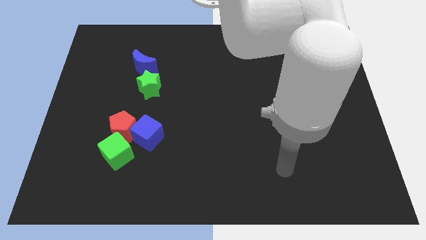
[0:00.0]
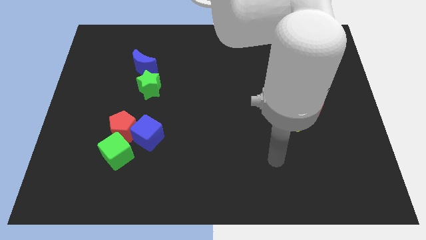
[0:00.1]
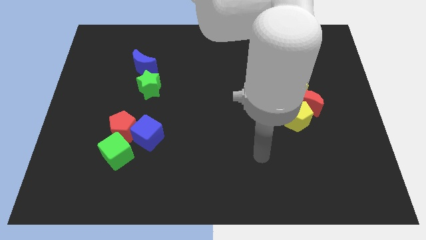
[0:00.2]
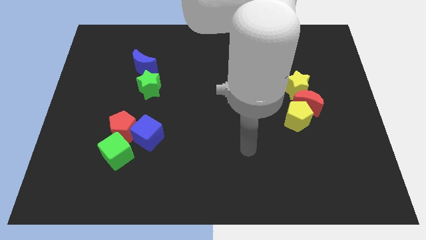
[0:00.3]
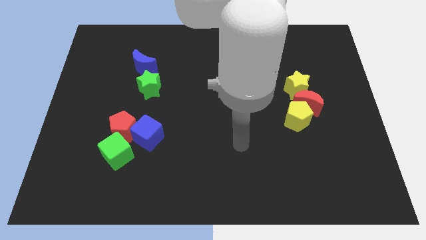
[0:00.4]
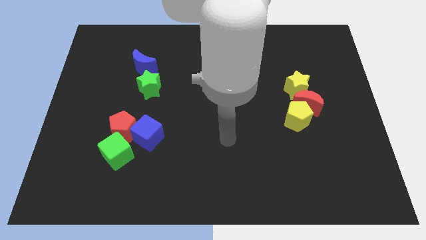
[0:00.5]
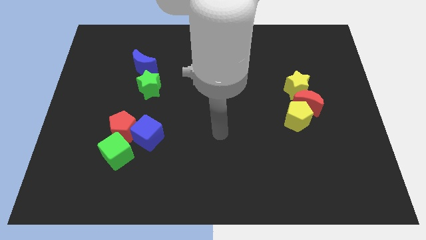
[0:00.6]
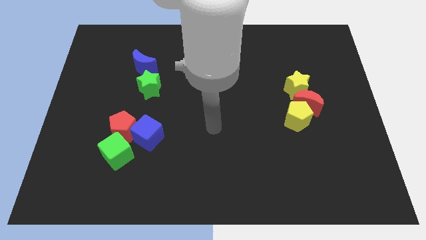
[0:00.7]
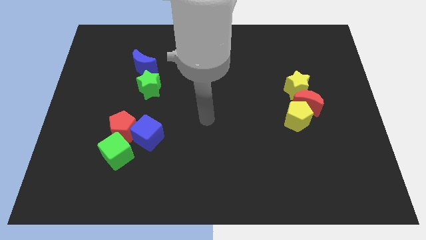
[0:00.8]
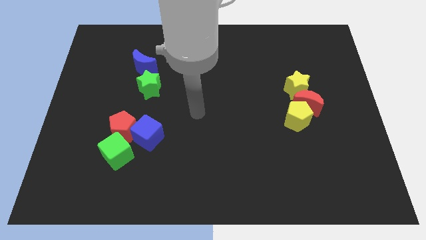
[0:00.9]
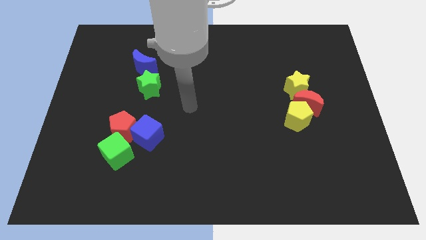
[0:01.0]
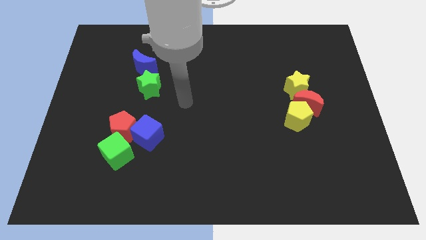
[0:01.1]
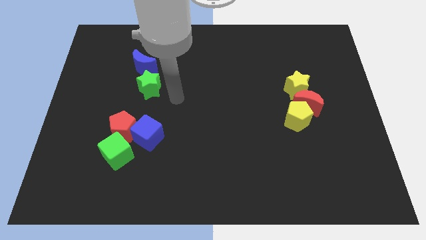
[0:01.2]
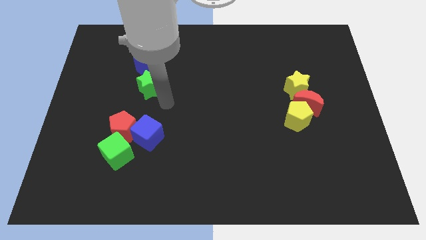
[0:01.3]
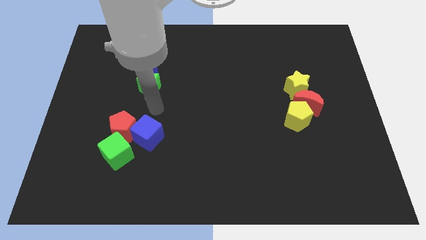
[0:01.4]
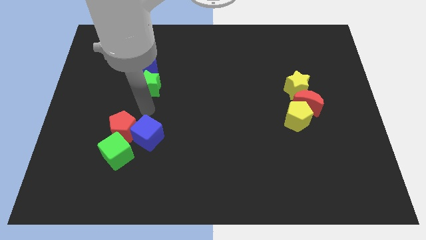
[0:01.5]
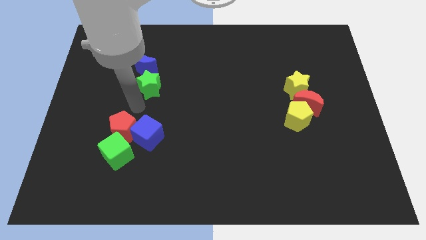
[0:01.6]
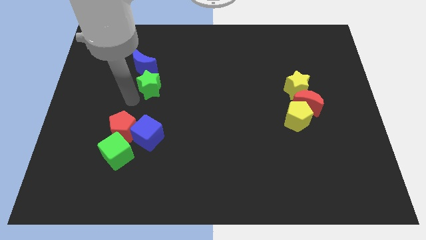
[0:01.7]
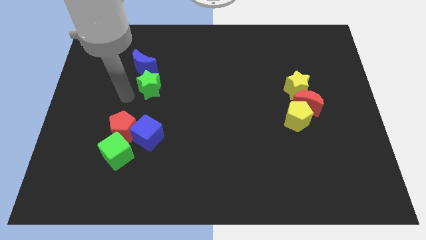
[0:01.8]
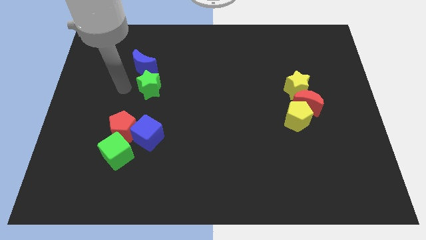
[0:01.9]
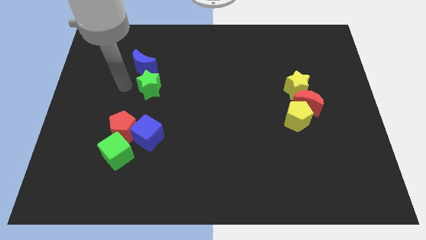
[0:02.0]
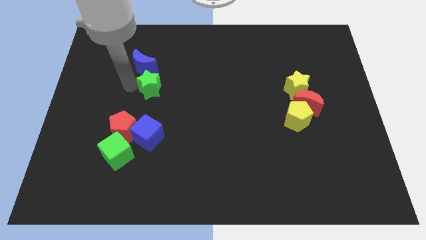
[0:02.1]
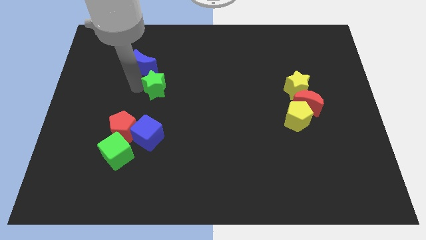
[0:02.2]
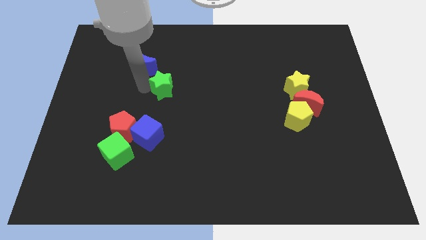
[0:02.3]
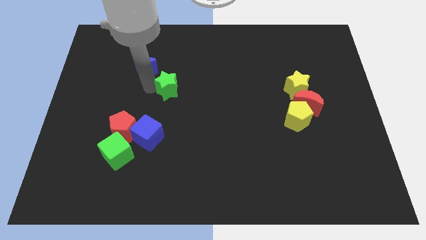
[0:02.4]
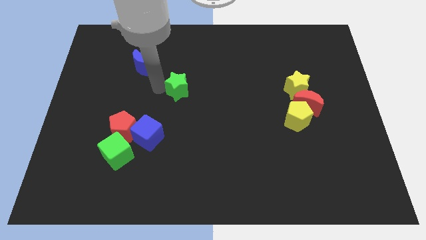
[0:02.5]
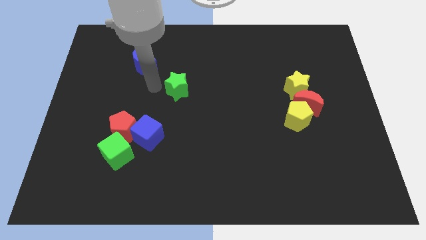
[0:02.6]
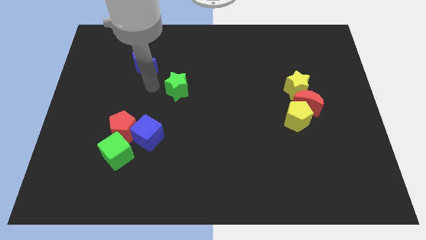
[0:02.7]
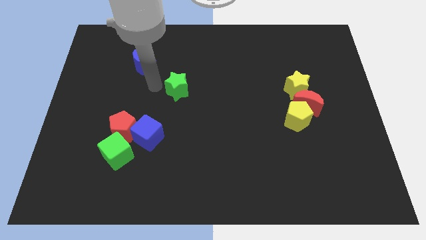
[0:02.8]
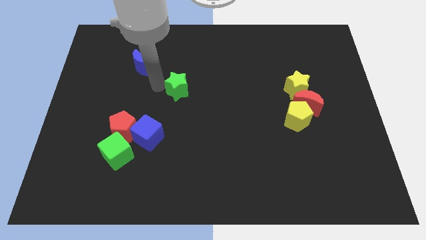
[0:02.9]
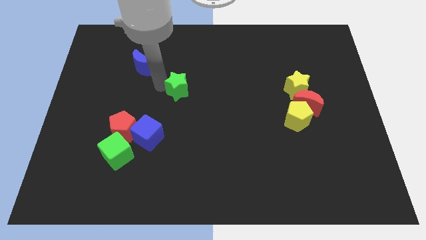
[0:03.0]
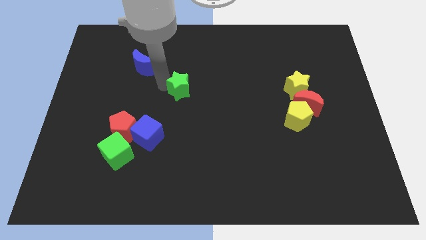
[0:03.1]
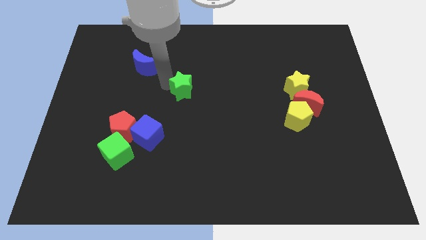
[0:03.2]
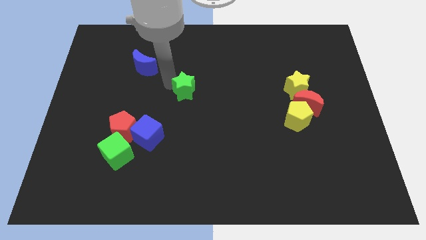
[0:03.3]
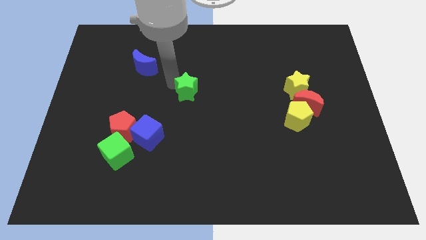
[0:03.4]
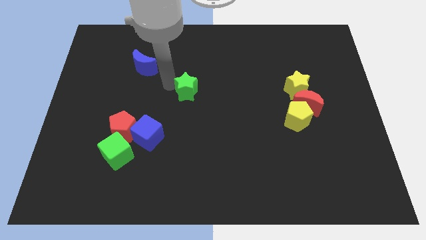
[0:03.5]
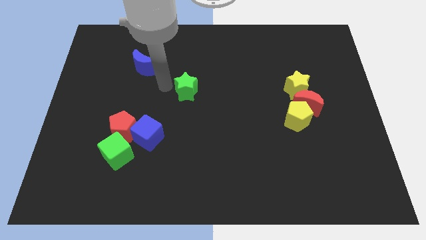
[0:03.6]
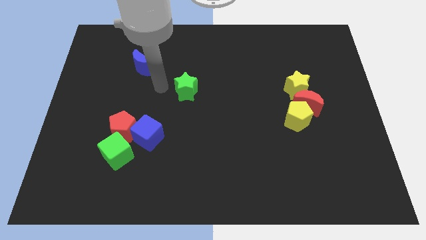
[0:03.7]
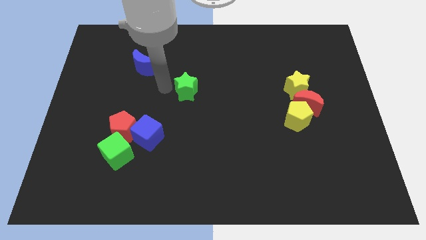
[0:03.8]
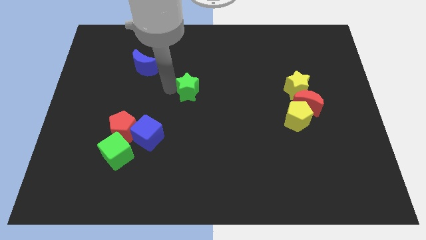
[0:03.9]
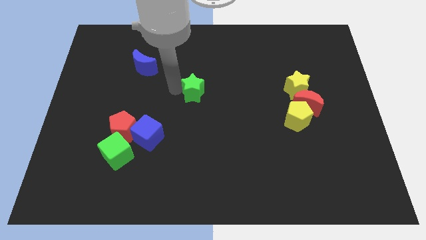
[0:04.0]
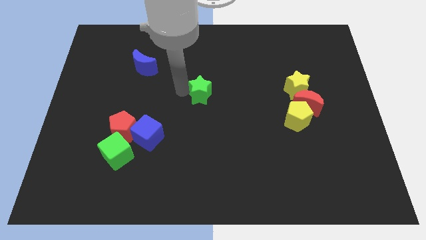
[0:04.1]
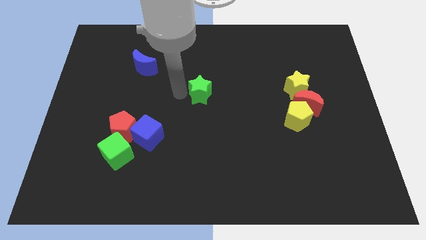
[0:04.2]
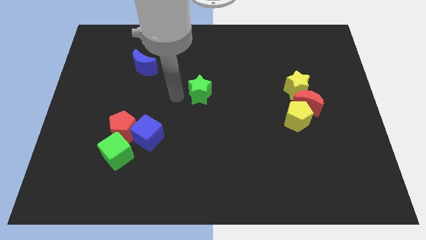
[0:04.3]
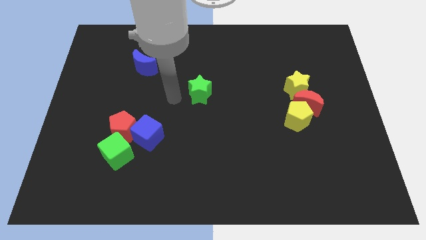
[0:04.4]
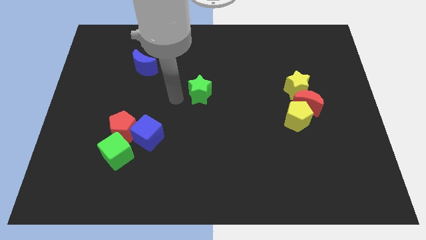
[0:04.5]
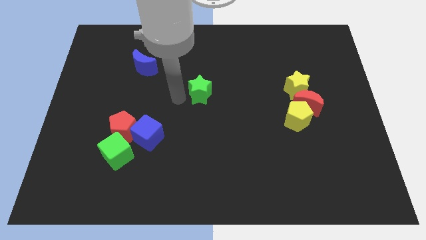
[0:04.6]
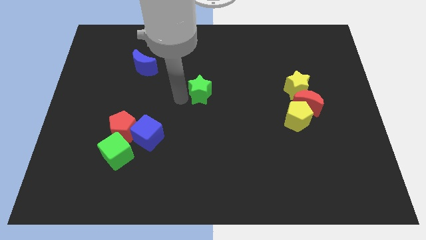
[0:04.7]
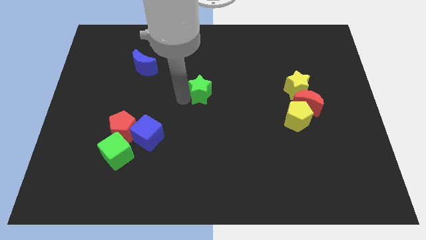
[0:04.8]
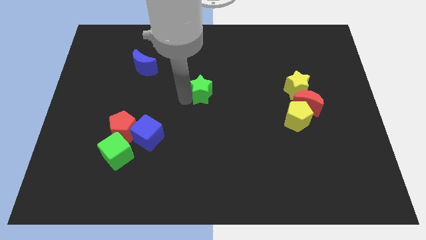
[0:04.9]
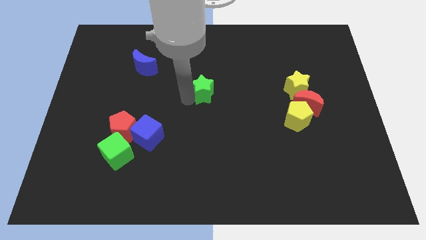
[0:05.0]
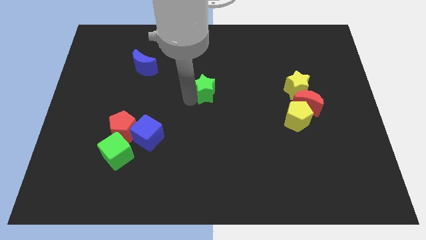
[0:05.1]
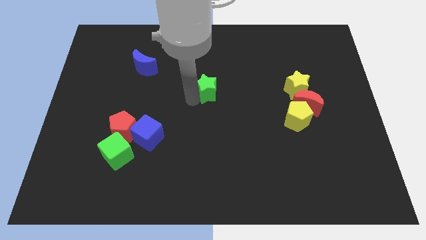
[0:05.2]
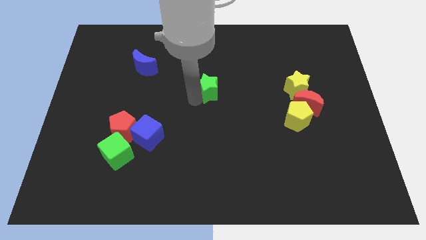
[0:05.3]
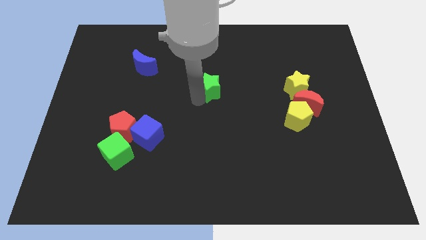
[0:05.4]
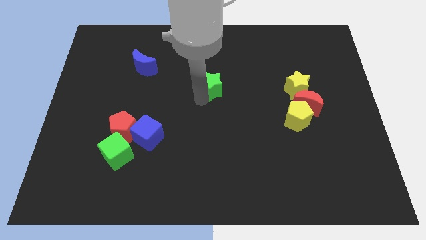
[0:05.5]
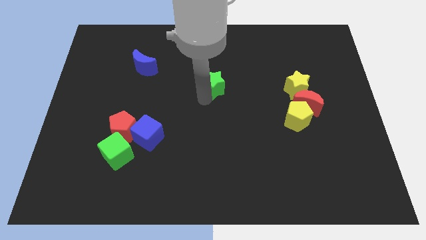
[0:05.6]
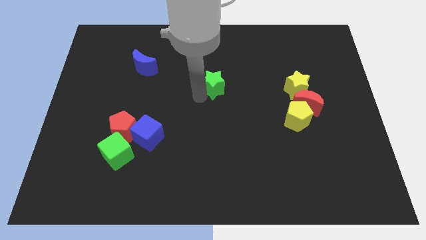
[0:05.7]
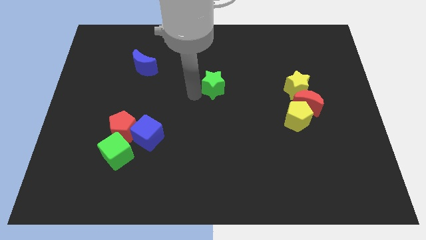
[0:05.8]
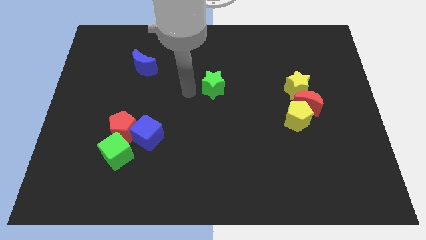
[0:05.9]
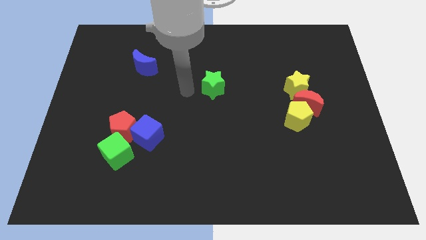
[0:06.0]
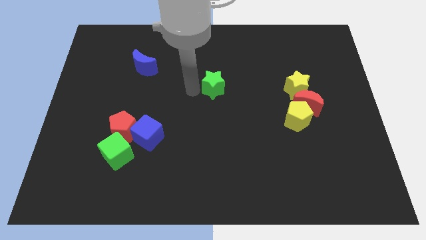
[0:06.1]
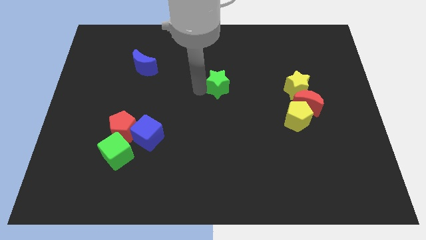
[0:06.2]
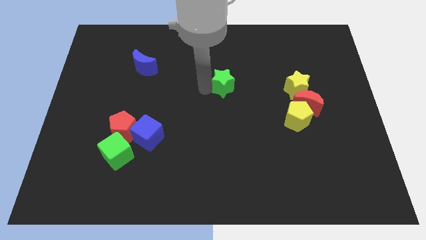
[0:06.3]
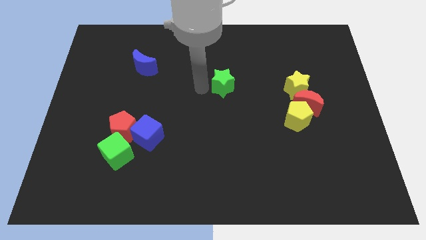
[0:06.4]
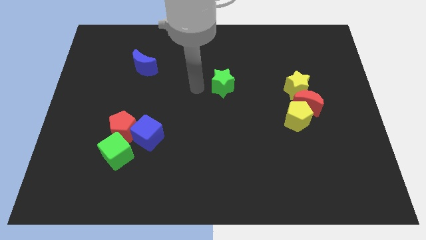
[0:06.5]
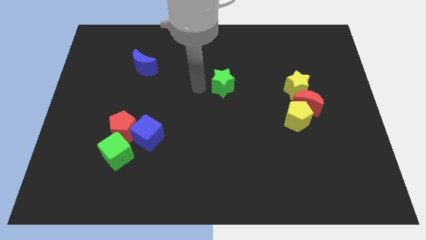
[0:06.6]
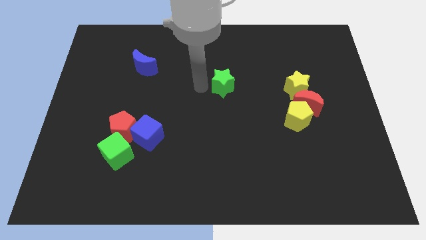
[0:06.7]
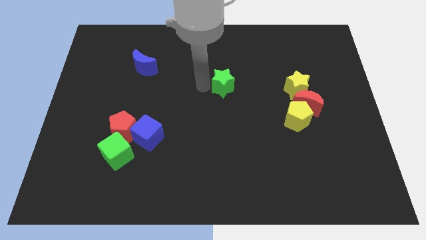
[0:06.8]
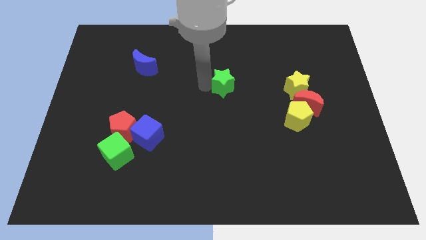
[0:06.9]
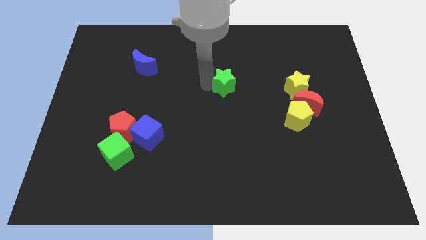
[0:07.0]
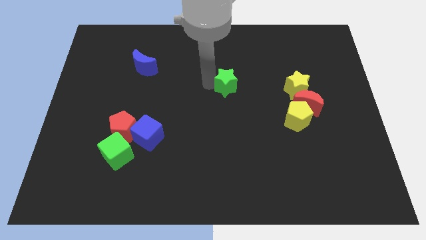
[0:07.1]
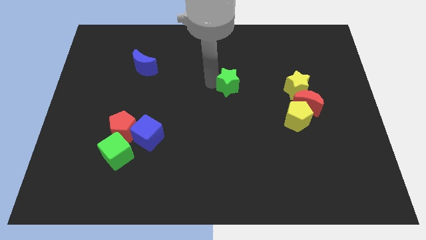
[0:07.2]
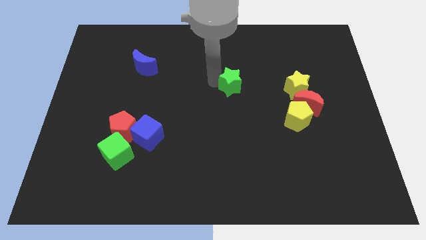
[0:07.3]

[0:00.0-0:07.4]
move the green star right

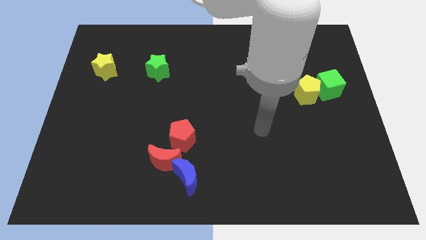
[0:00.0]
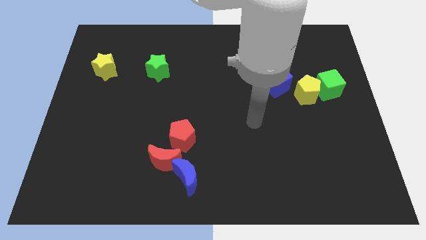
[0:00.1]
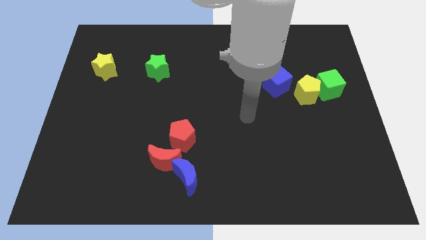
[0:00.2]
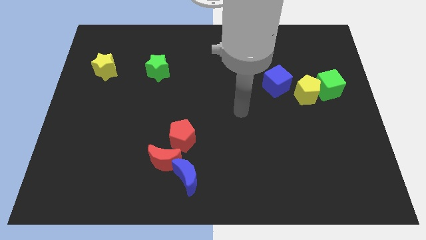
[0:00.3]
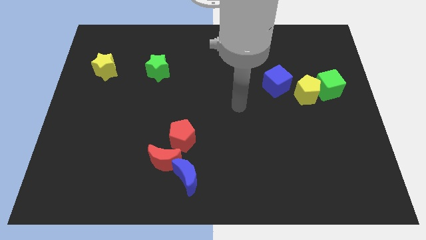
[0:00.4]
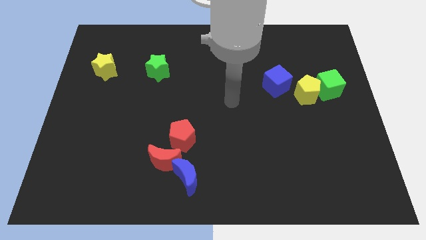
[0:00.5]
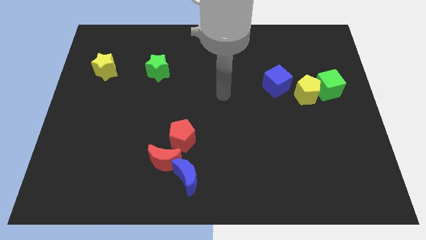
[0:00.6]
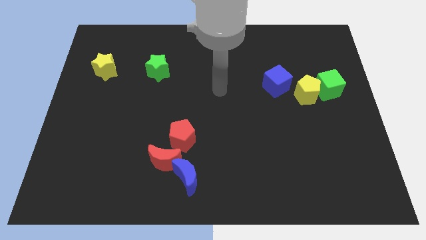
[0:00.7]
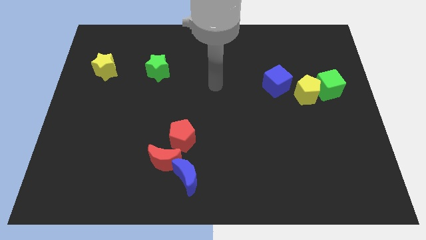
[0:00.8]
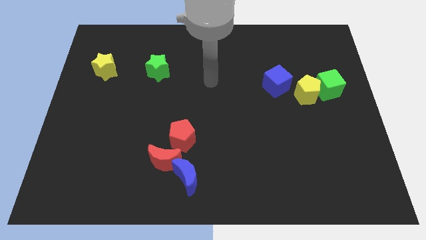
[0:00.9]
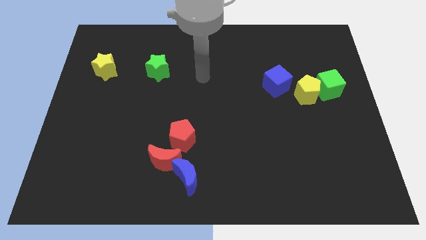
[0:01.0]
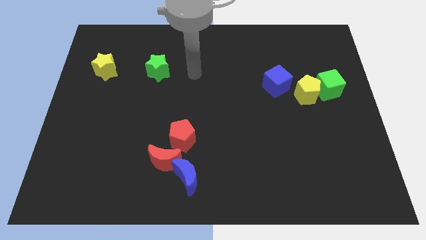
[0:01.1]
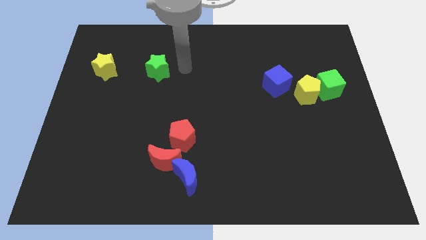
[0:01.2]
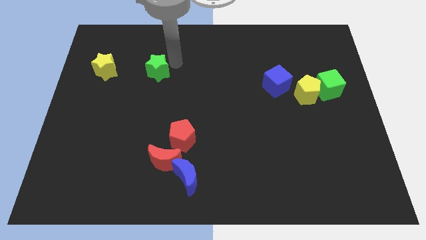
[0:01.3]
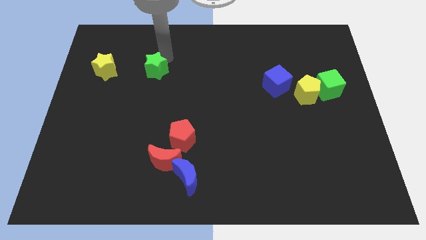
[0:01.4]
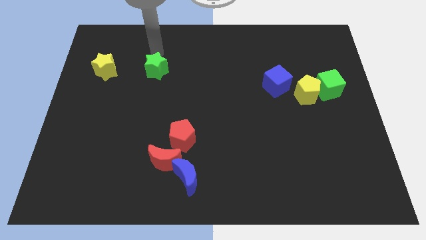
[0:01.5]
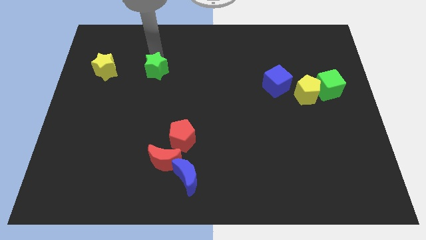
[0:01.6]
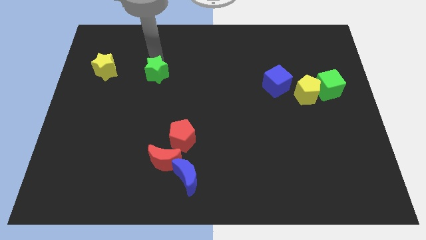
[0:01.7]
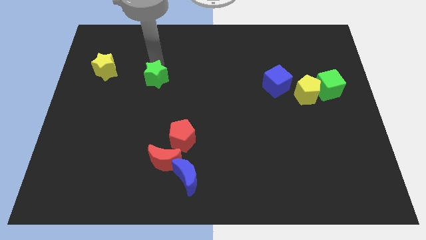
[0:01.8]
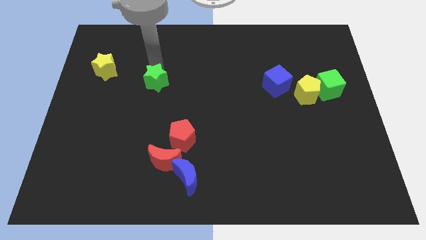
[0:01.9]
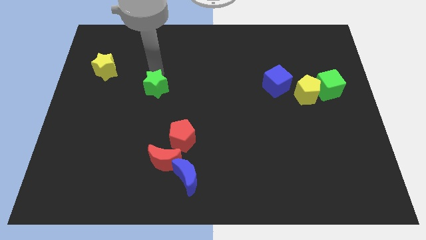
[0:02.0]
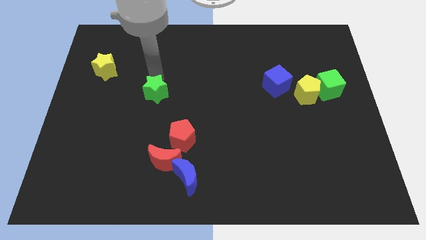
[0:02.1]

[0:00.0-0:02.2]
slightly slide the green star down
